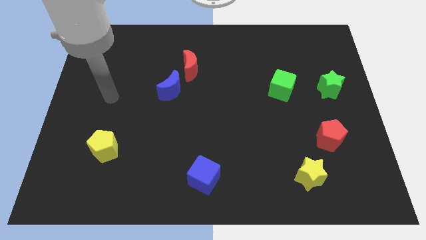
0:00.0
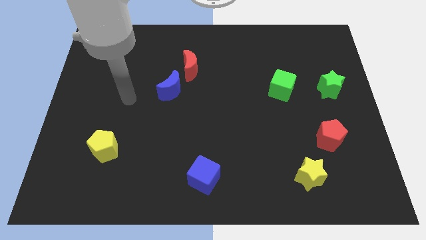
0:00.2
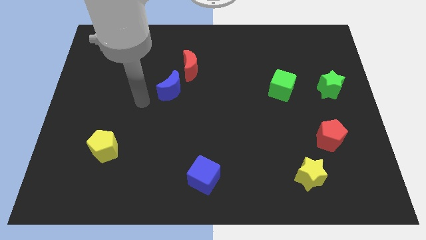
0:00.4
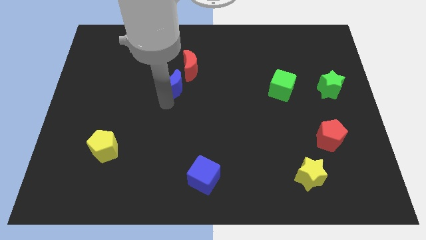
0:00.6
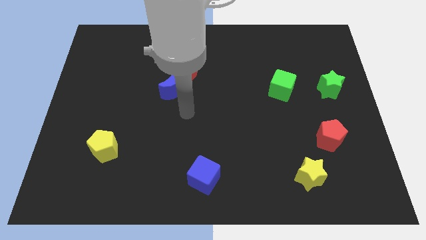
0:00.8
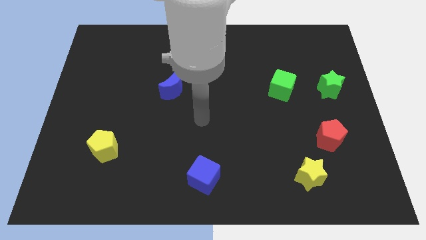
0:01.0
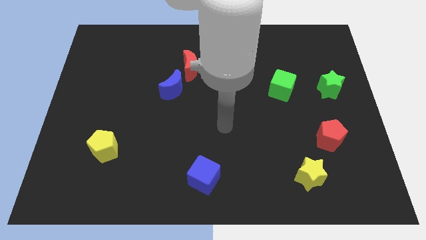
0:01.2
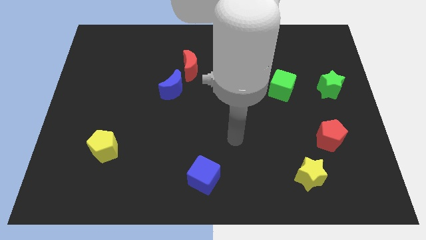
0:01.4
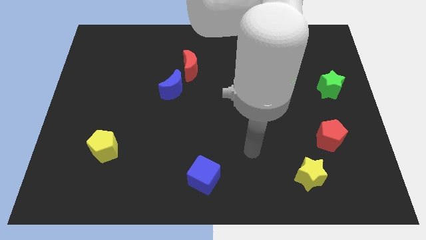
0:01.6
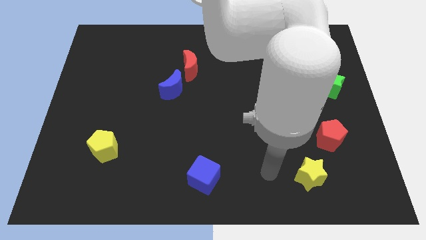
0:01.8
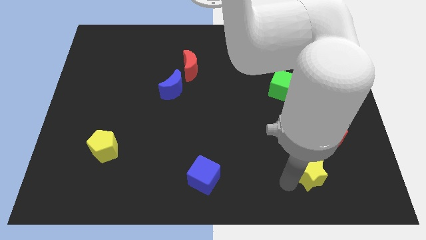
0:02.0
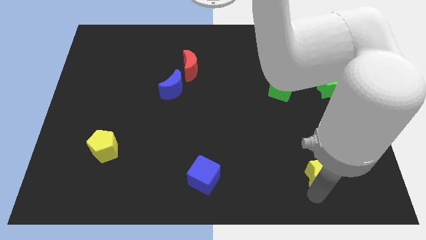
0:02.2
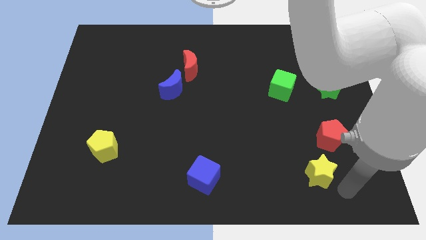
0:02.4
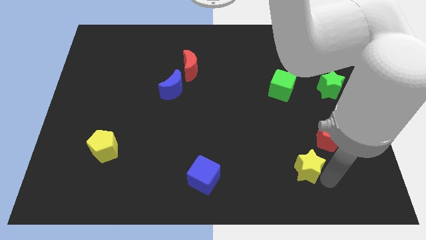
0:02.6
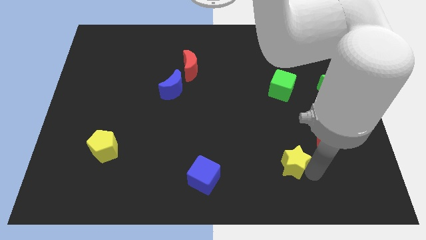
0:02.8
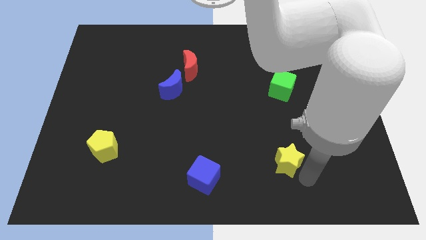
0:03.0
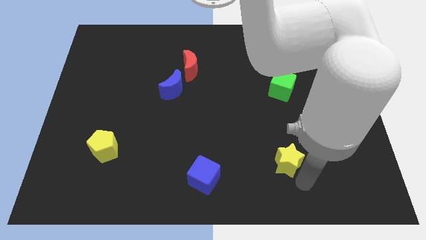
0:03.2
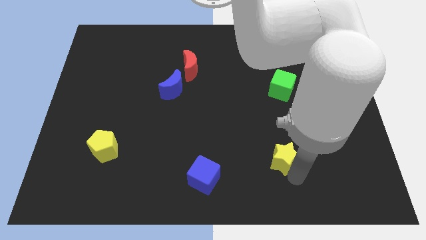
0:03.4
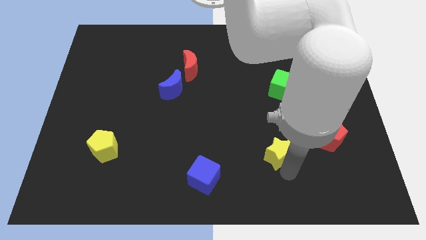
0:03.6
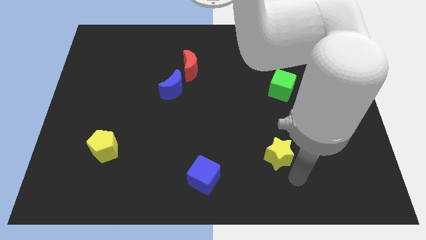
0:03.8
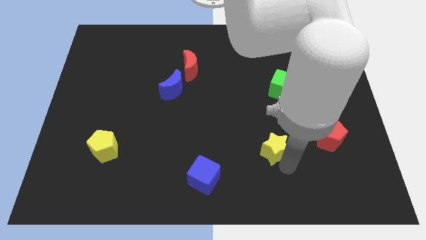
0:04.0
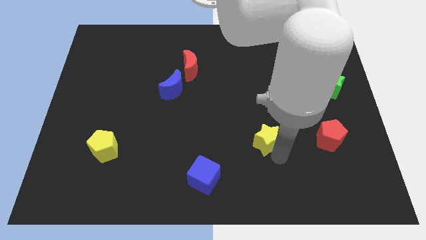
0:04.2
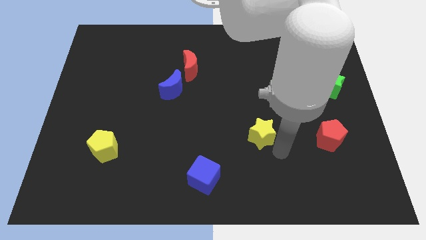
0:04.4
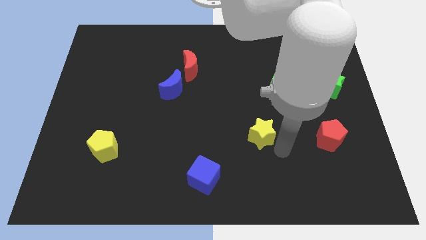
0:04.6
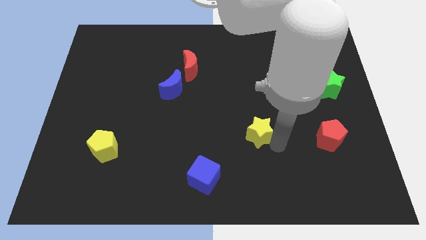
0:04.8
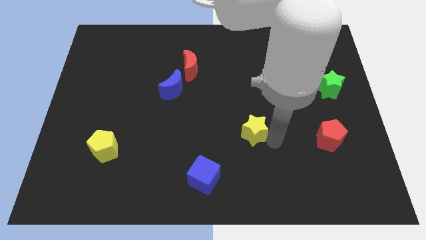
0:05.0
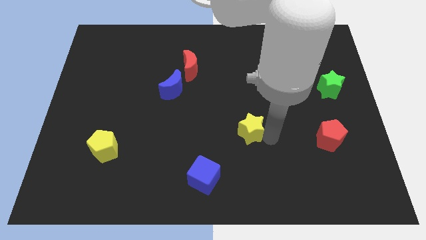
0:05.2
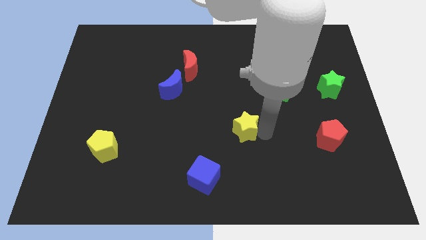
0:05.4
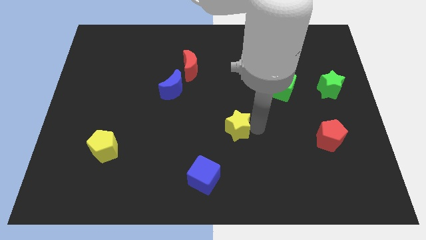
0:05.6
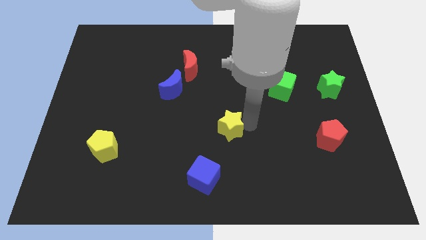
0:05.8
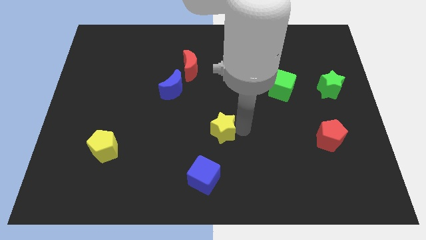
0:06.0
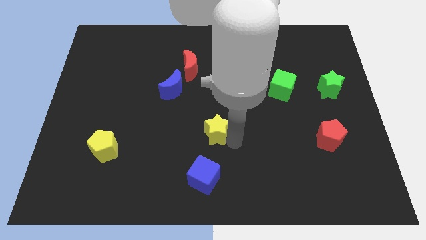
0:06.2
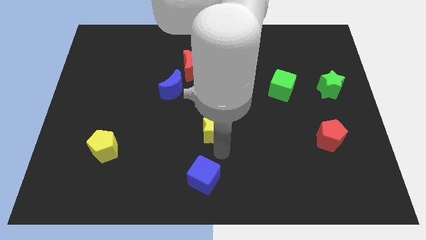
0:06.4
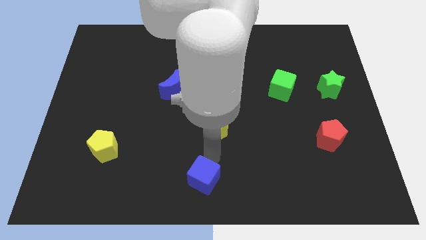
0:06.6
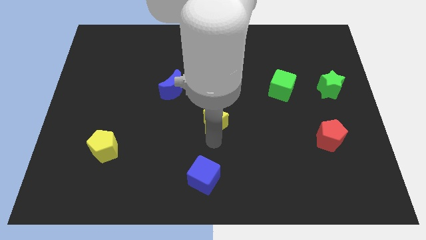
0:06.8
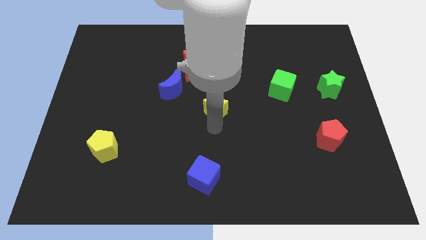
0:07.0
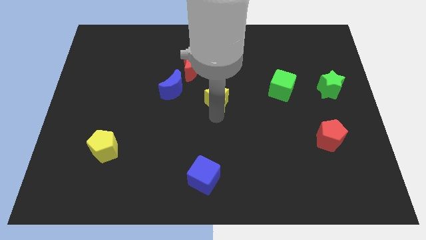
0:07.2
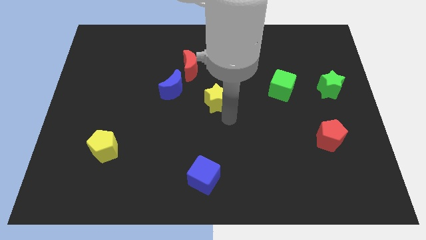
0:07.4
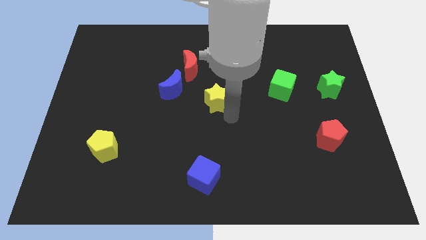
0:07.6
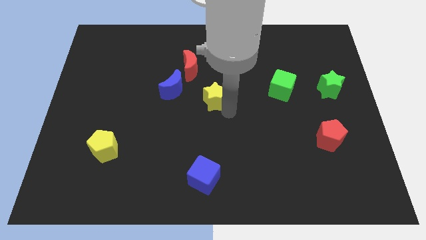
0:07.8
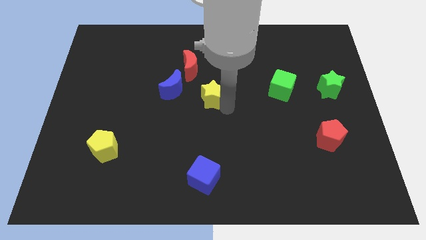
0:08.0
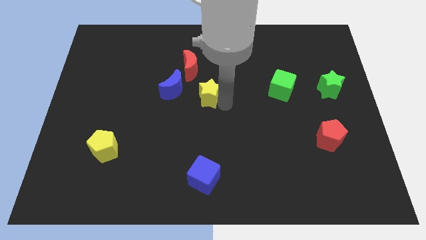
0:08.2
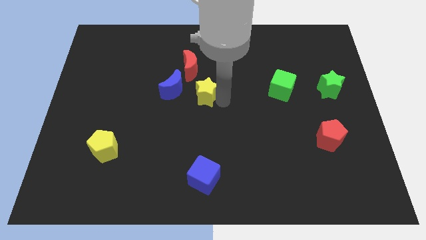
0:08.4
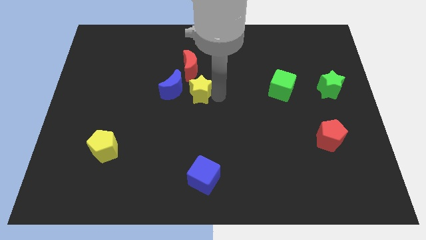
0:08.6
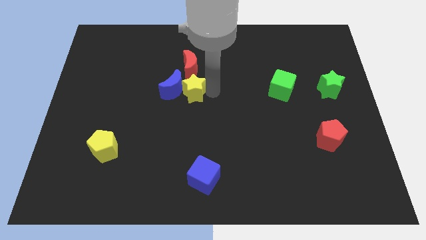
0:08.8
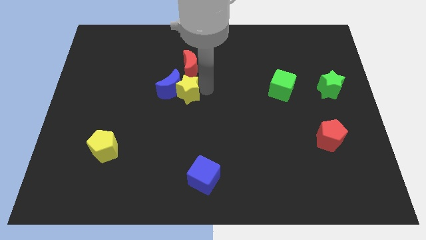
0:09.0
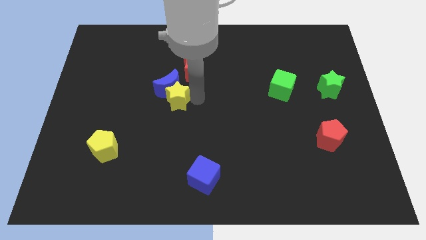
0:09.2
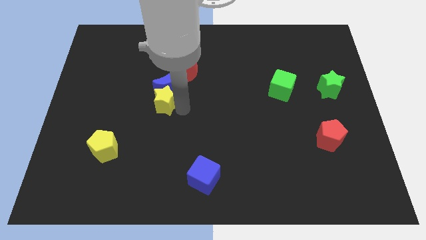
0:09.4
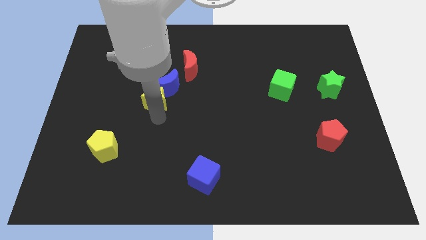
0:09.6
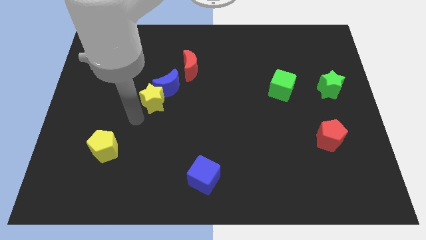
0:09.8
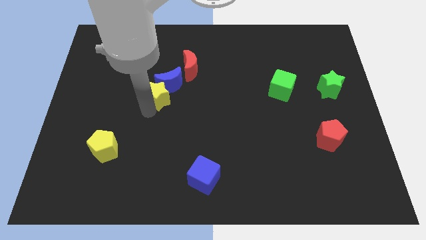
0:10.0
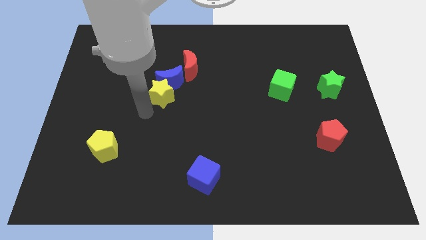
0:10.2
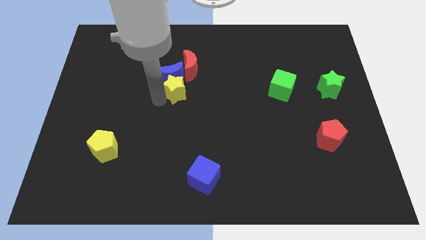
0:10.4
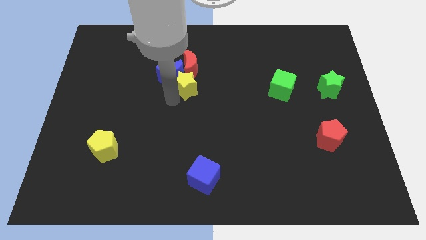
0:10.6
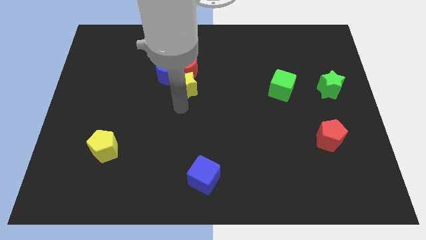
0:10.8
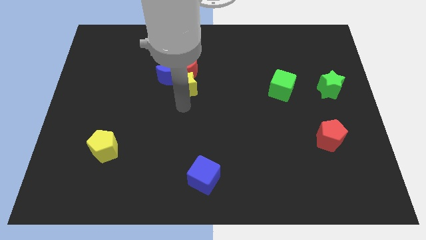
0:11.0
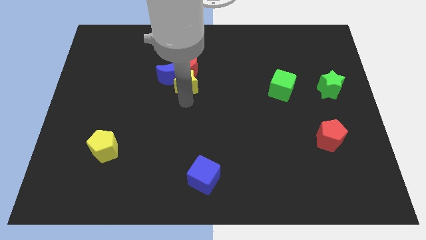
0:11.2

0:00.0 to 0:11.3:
push the yellow star close to the red moon

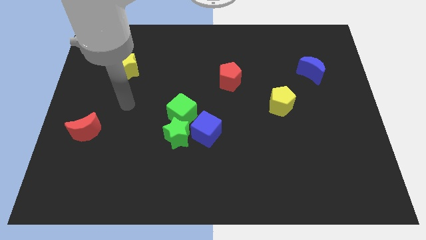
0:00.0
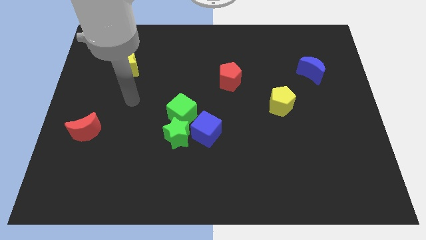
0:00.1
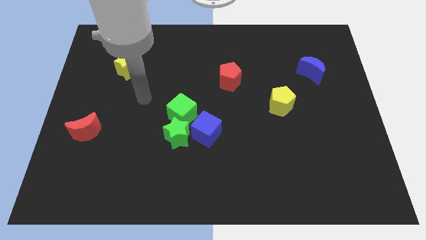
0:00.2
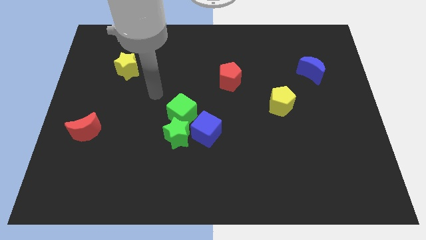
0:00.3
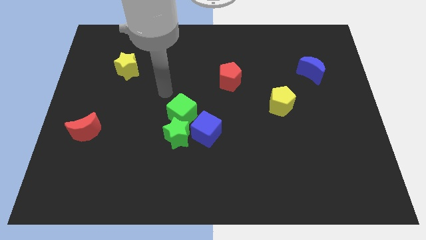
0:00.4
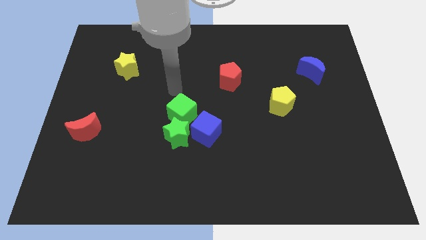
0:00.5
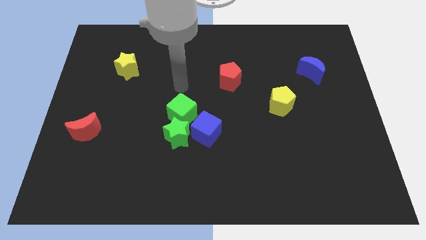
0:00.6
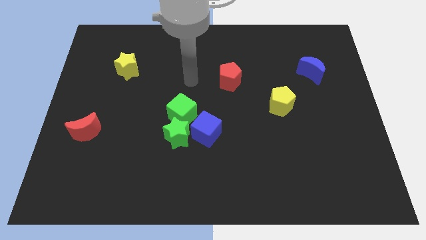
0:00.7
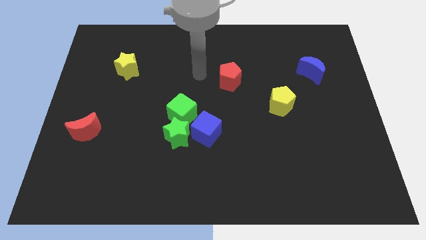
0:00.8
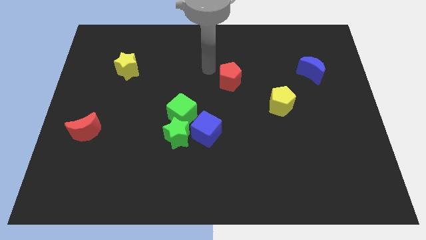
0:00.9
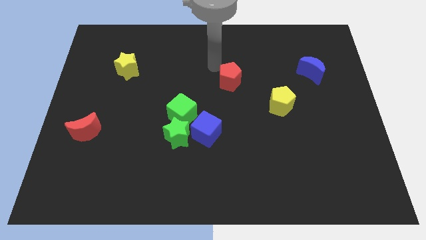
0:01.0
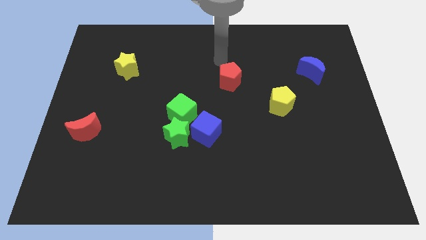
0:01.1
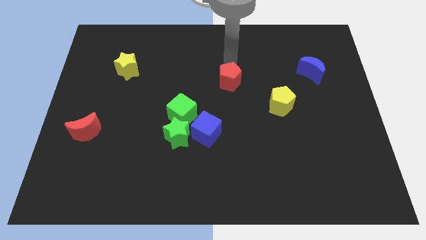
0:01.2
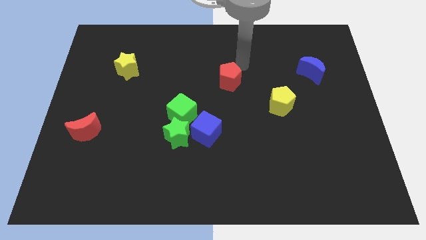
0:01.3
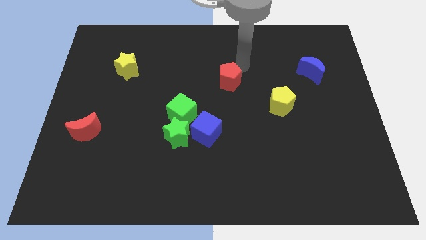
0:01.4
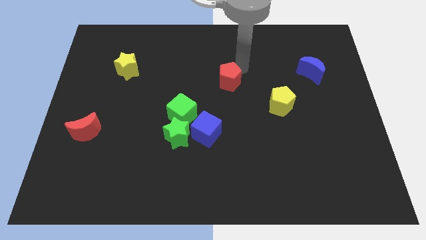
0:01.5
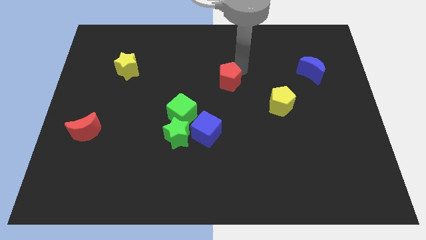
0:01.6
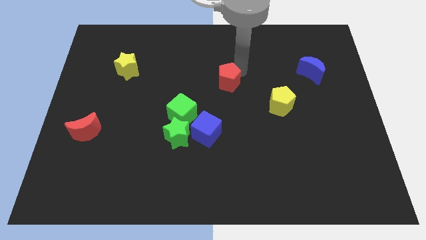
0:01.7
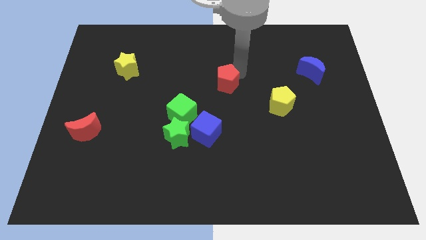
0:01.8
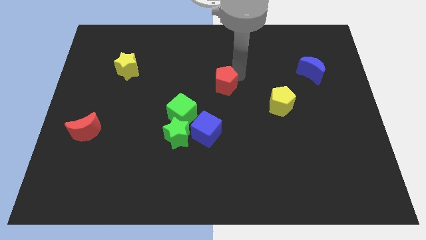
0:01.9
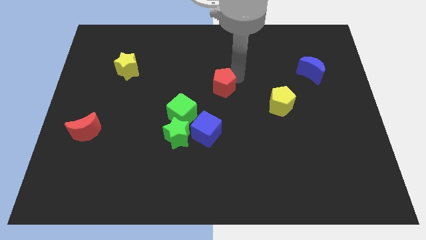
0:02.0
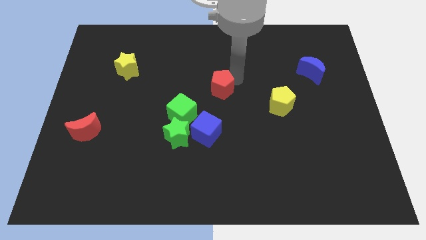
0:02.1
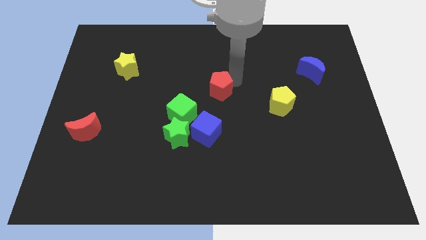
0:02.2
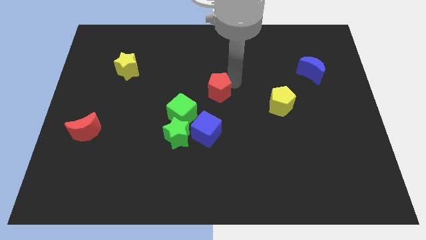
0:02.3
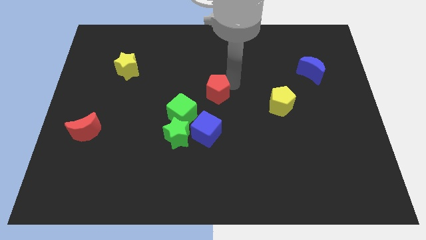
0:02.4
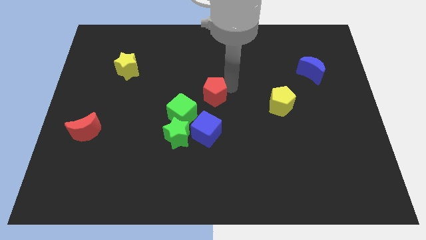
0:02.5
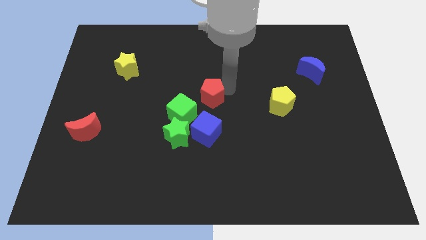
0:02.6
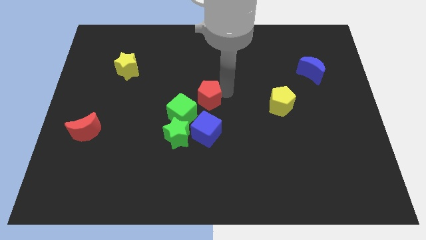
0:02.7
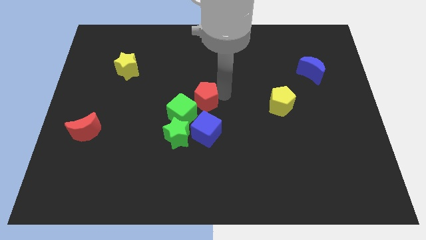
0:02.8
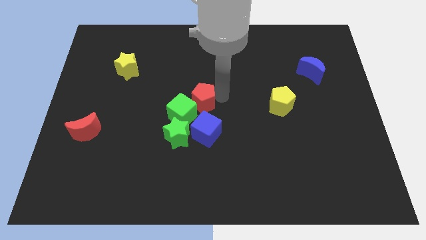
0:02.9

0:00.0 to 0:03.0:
slide the red pentagon close to the green cube
